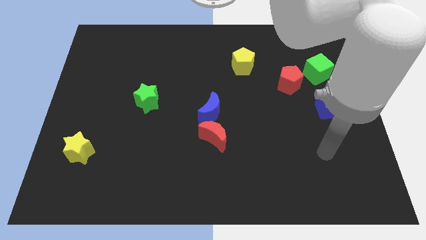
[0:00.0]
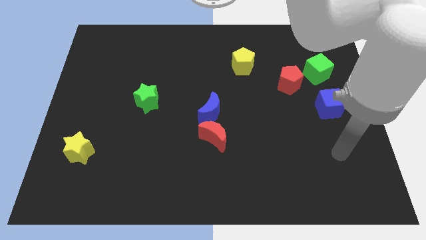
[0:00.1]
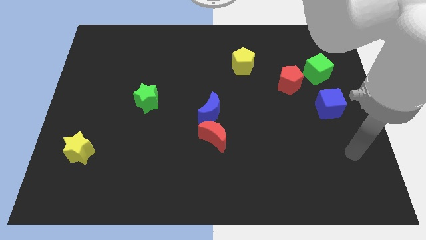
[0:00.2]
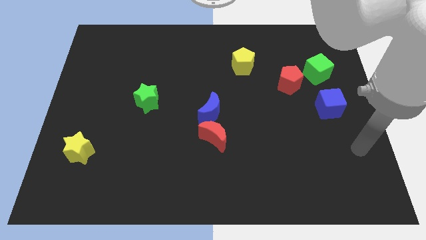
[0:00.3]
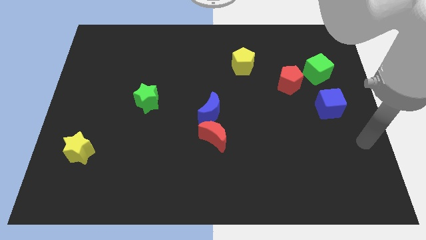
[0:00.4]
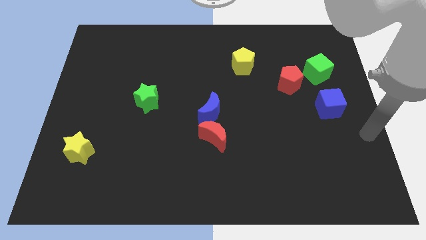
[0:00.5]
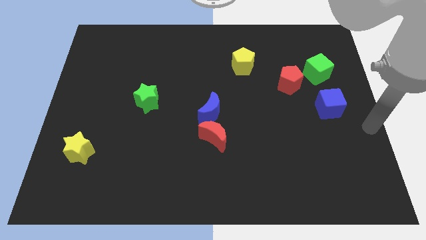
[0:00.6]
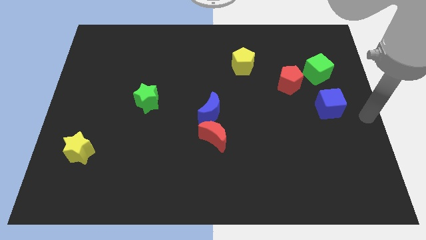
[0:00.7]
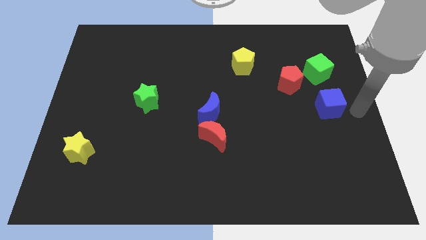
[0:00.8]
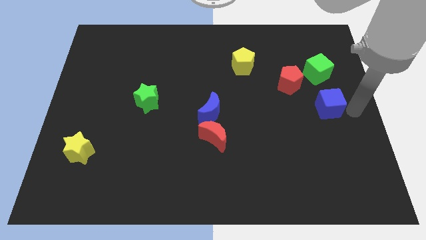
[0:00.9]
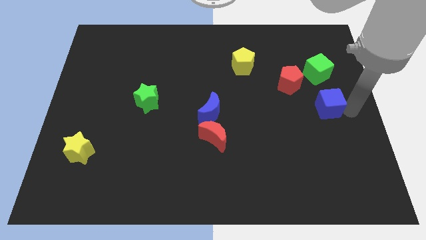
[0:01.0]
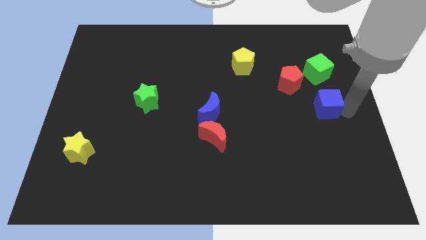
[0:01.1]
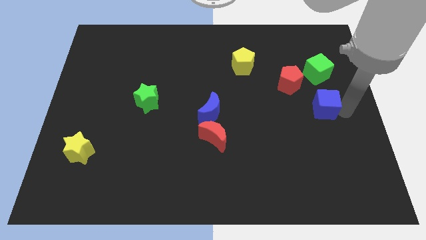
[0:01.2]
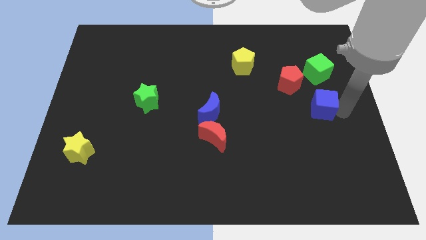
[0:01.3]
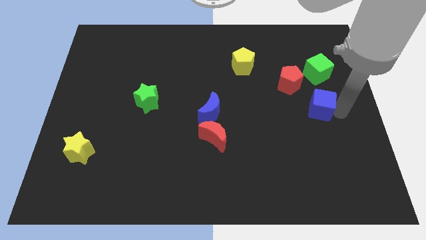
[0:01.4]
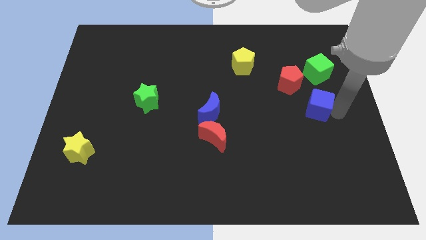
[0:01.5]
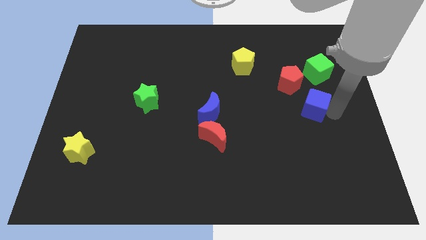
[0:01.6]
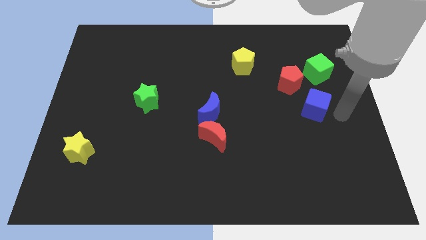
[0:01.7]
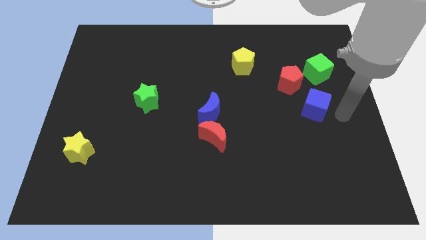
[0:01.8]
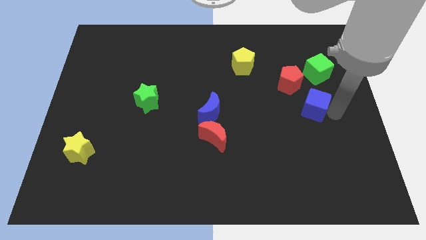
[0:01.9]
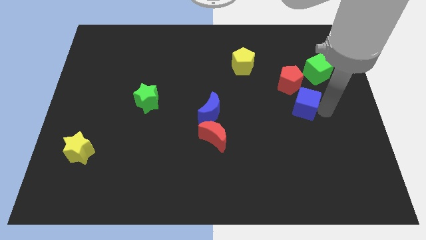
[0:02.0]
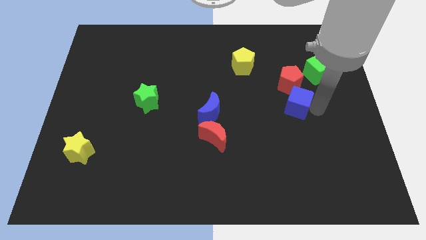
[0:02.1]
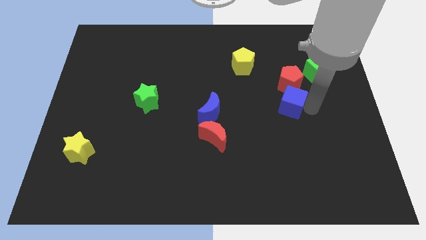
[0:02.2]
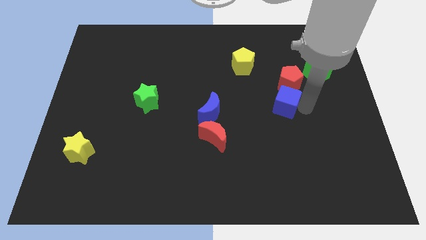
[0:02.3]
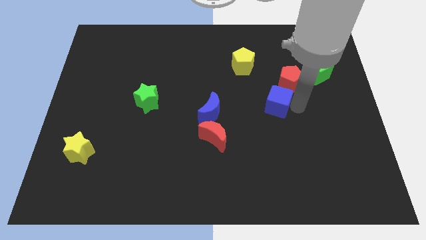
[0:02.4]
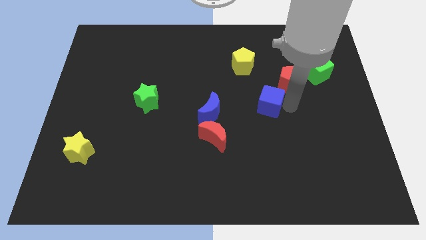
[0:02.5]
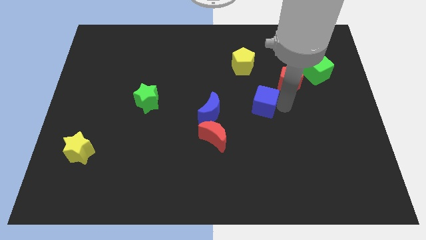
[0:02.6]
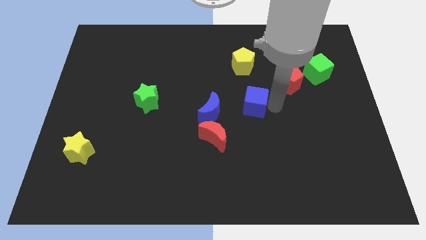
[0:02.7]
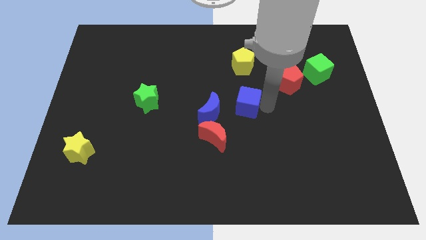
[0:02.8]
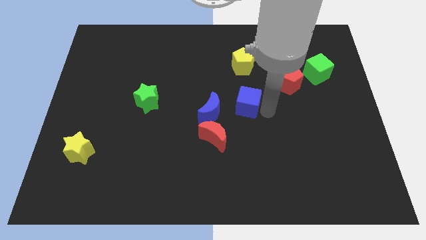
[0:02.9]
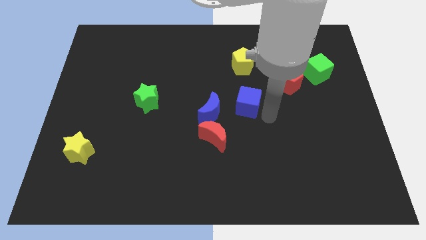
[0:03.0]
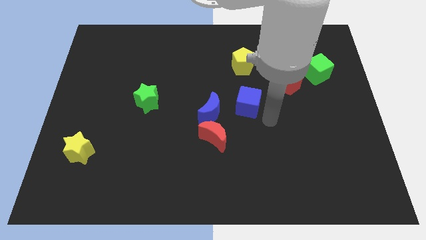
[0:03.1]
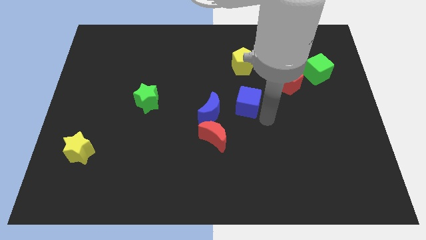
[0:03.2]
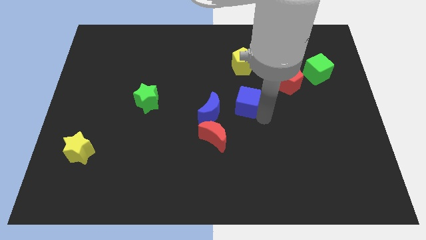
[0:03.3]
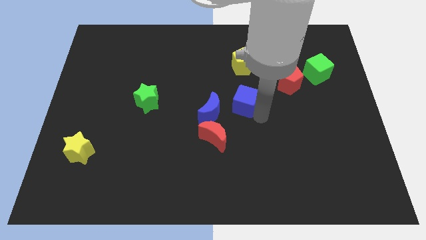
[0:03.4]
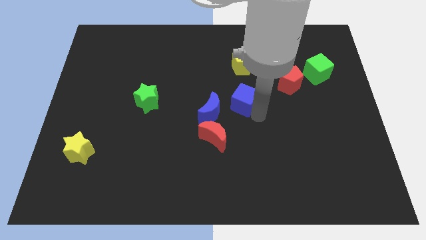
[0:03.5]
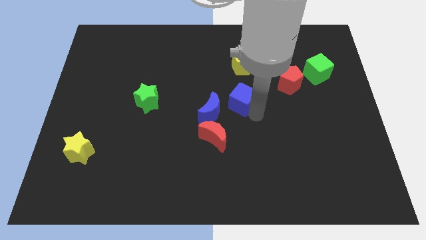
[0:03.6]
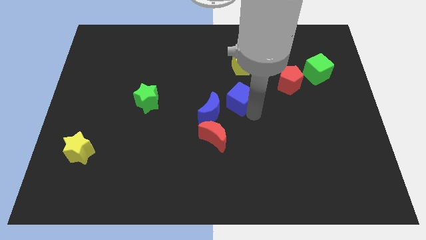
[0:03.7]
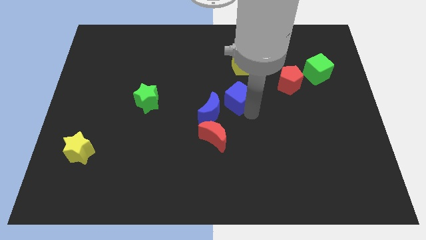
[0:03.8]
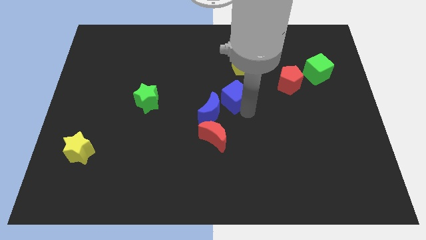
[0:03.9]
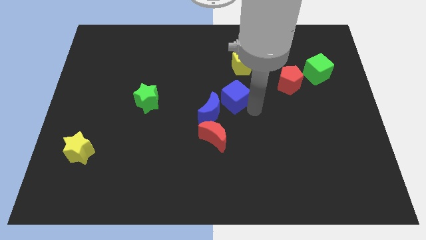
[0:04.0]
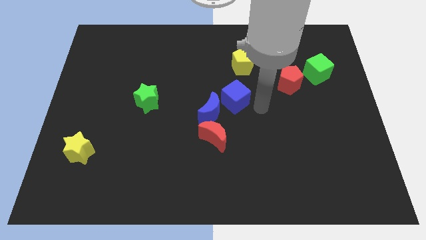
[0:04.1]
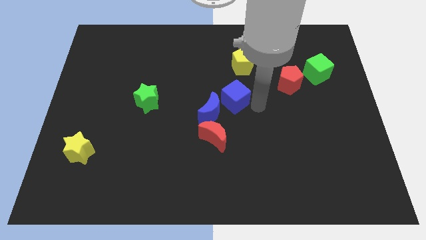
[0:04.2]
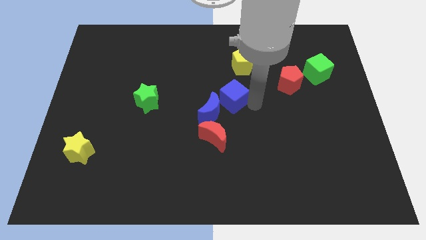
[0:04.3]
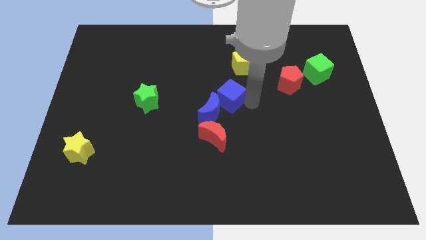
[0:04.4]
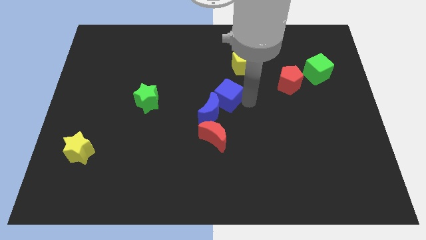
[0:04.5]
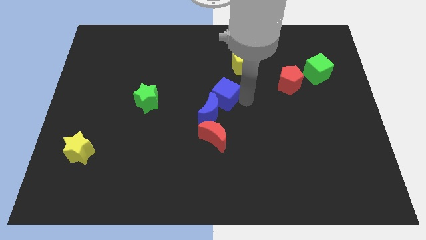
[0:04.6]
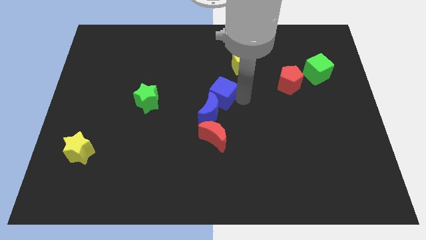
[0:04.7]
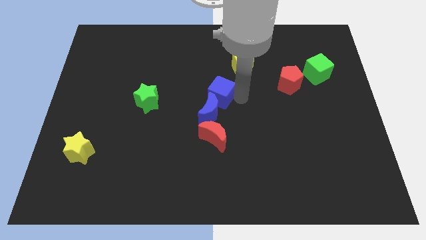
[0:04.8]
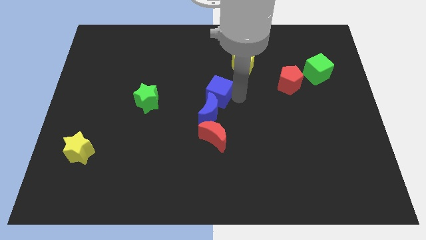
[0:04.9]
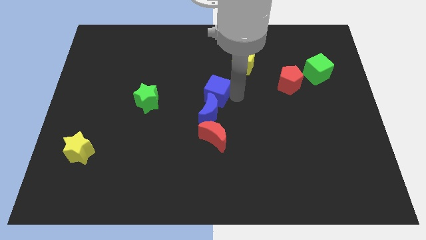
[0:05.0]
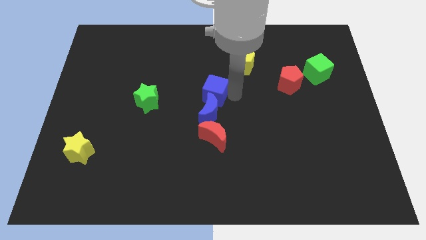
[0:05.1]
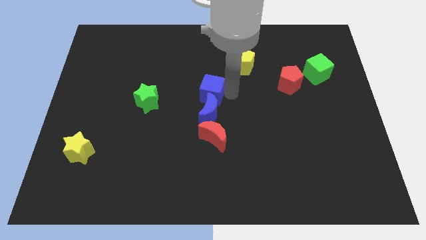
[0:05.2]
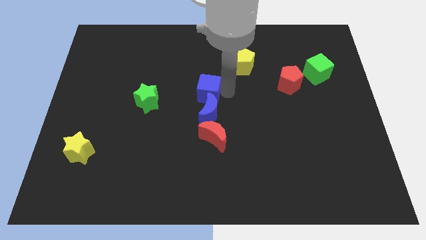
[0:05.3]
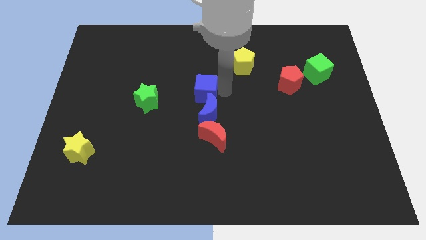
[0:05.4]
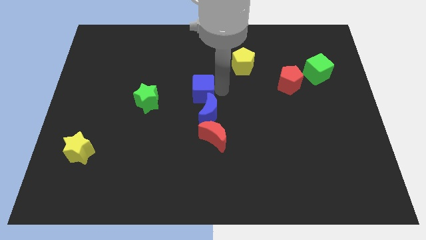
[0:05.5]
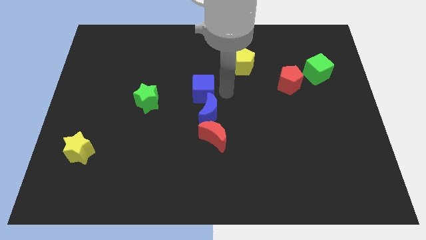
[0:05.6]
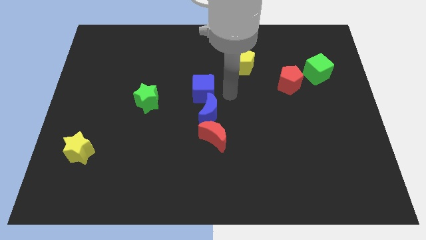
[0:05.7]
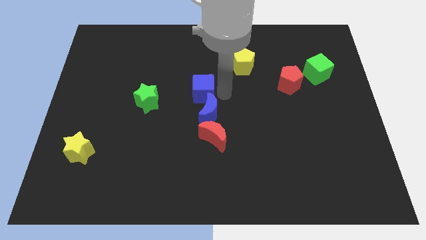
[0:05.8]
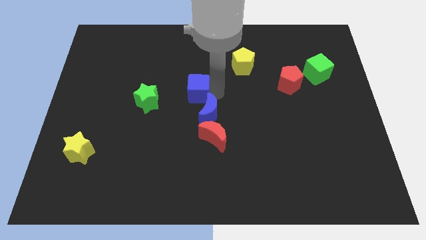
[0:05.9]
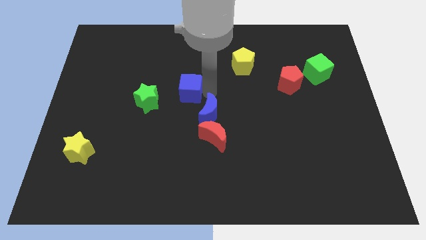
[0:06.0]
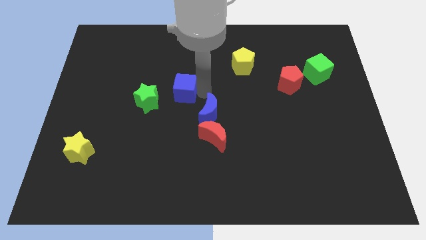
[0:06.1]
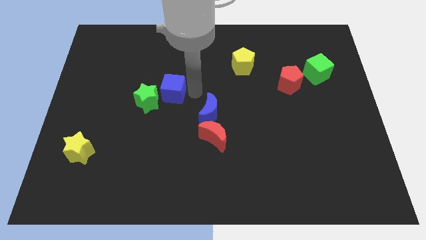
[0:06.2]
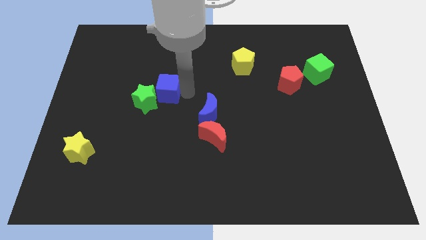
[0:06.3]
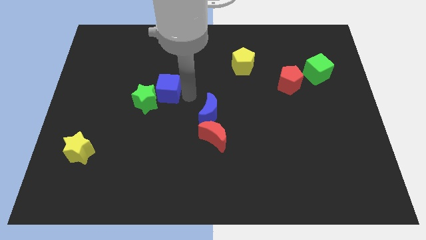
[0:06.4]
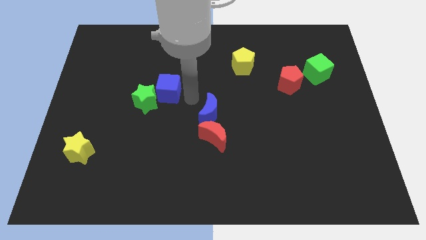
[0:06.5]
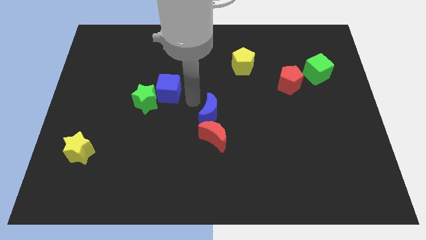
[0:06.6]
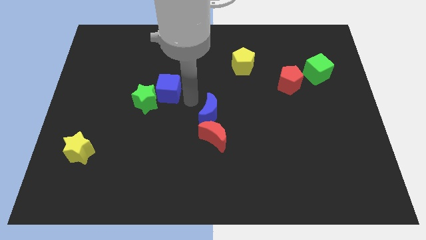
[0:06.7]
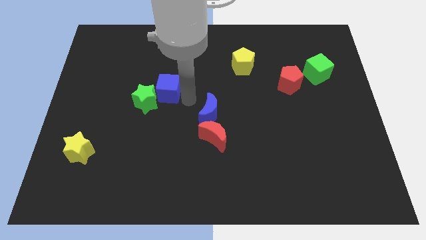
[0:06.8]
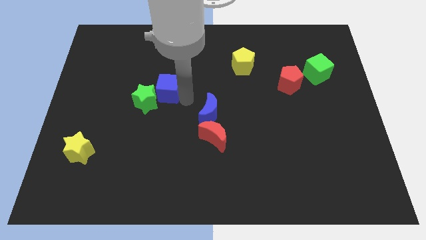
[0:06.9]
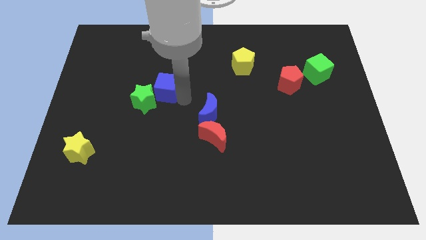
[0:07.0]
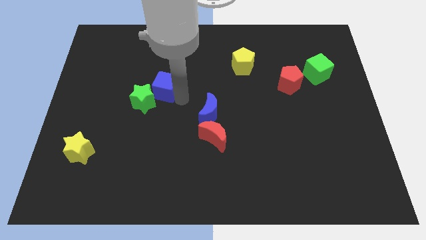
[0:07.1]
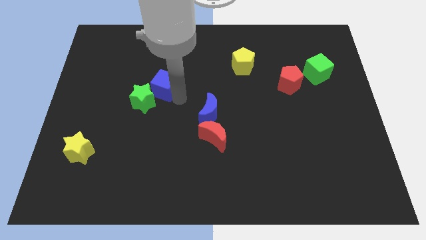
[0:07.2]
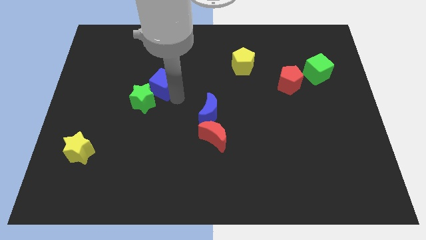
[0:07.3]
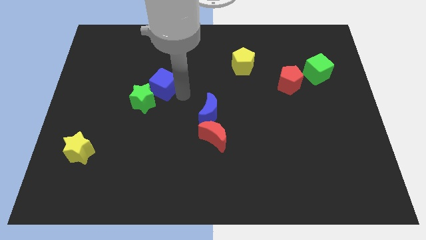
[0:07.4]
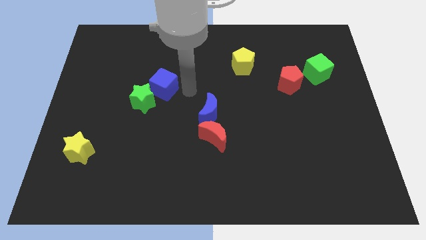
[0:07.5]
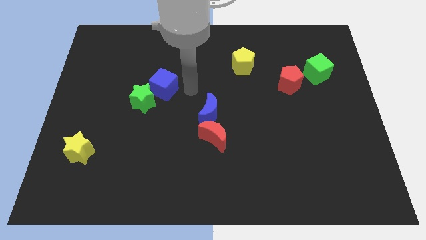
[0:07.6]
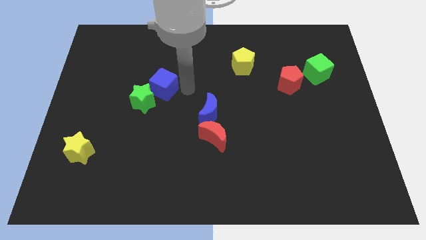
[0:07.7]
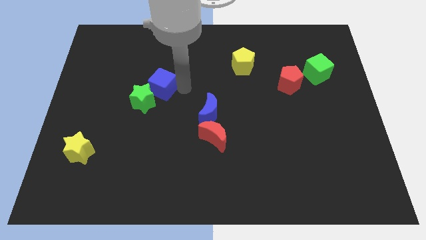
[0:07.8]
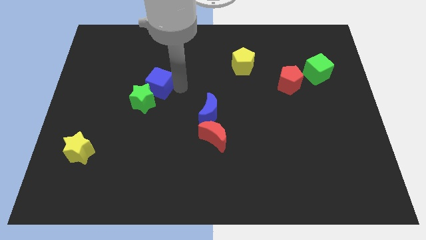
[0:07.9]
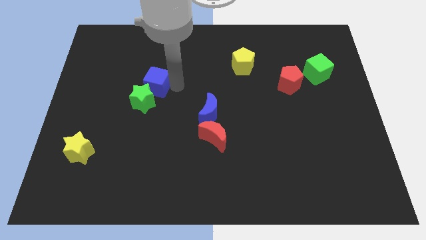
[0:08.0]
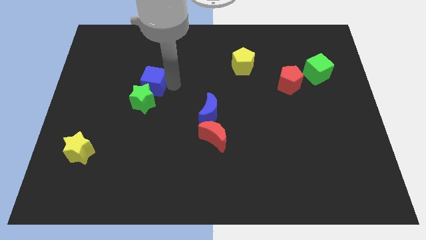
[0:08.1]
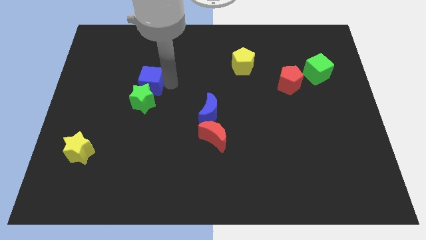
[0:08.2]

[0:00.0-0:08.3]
move the blue cube to the top left side of the green star
